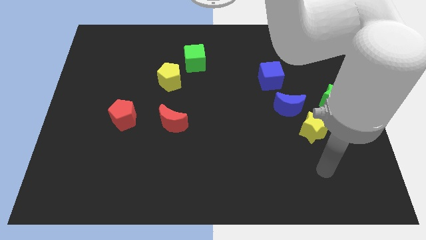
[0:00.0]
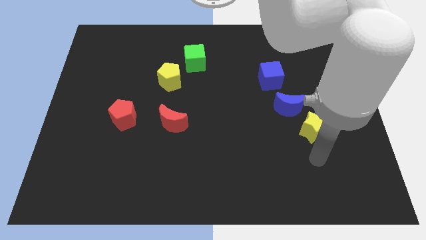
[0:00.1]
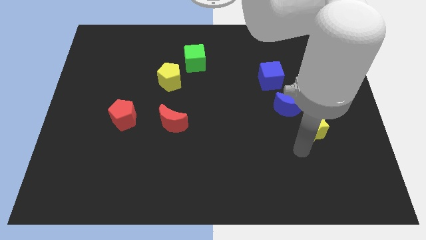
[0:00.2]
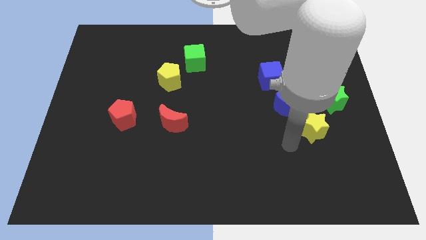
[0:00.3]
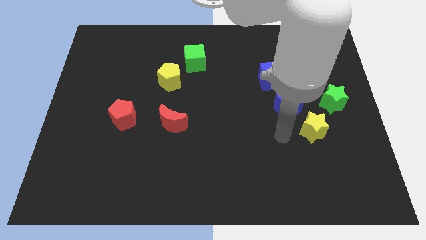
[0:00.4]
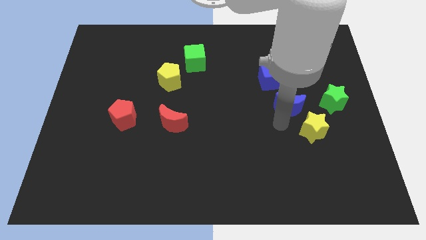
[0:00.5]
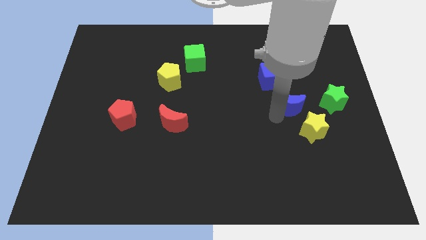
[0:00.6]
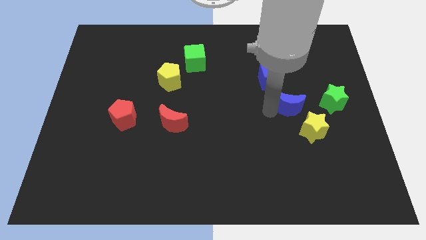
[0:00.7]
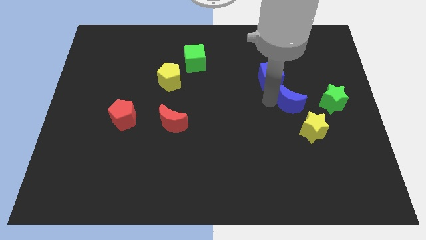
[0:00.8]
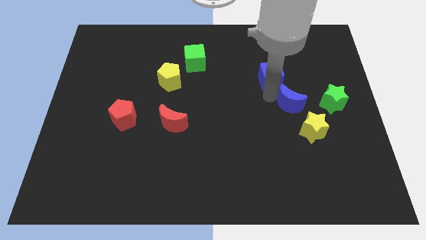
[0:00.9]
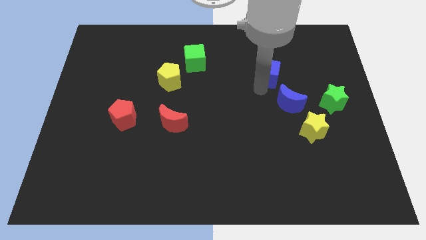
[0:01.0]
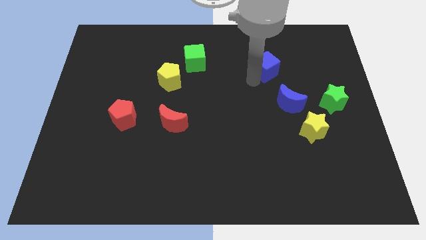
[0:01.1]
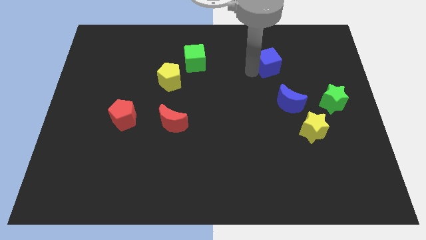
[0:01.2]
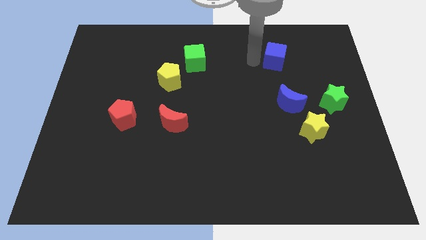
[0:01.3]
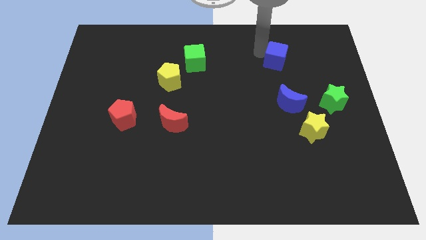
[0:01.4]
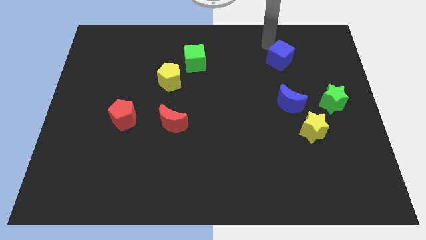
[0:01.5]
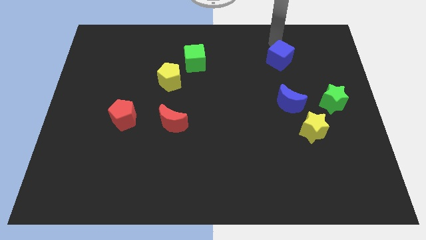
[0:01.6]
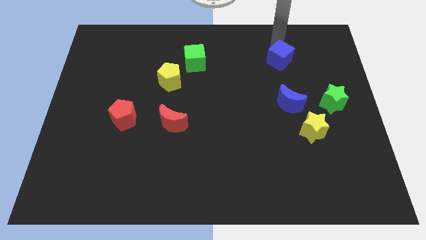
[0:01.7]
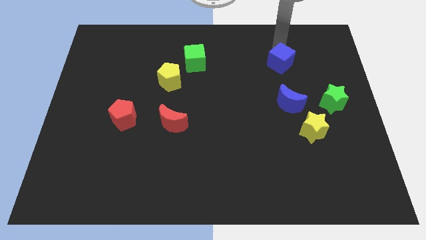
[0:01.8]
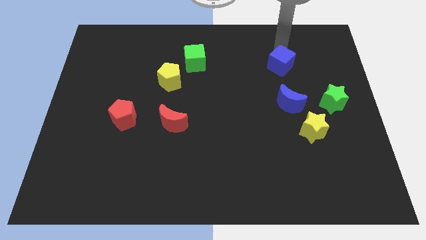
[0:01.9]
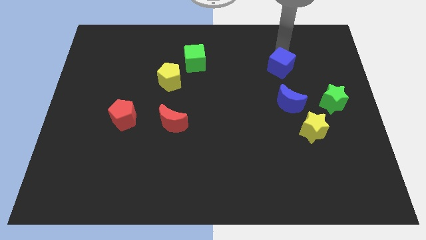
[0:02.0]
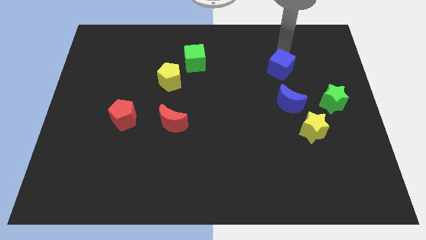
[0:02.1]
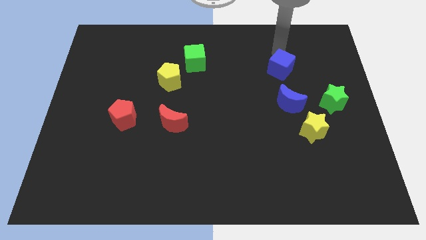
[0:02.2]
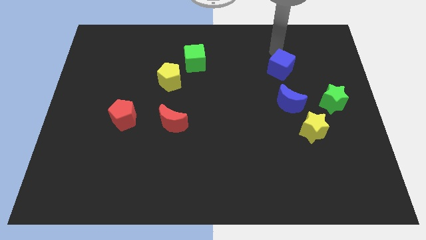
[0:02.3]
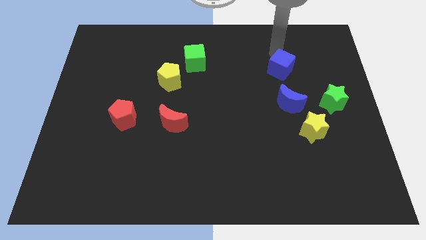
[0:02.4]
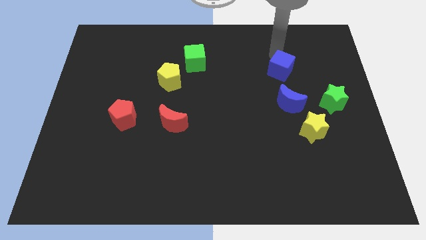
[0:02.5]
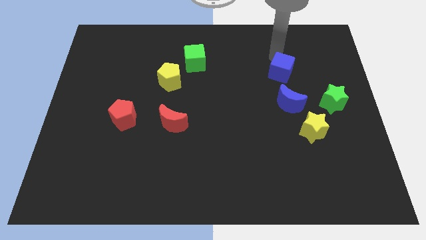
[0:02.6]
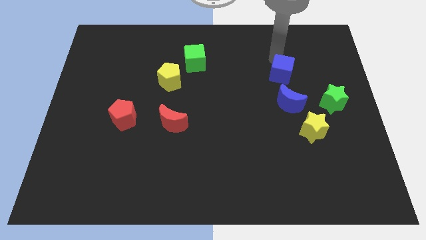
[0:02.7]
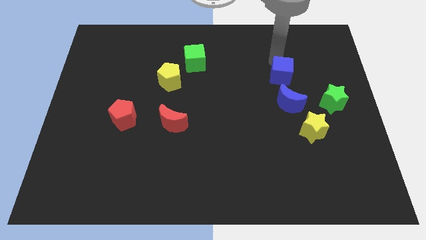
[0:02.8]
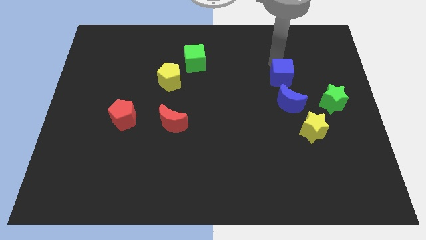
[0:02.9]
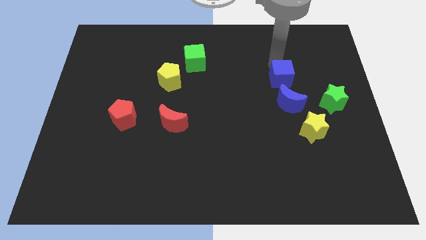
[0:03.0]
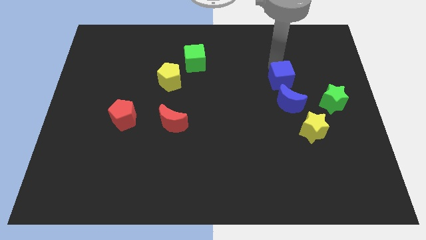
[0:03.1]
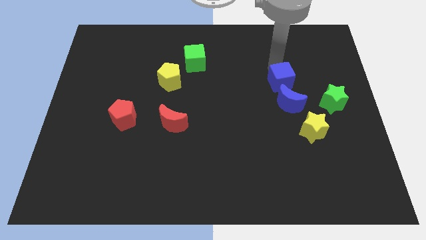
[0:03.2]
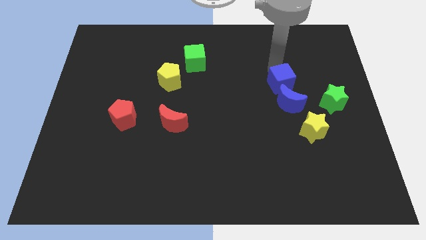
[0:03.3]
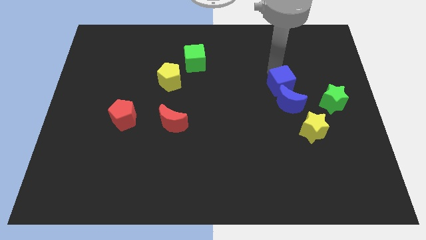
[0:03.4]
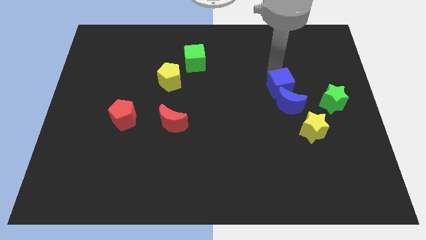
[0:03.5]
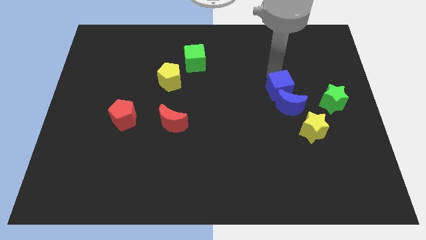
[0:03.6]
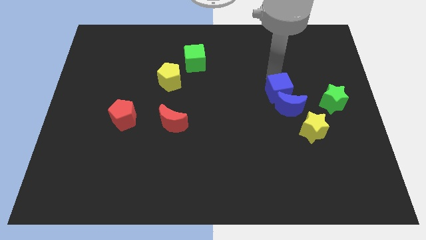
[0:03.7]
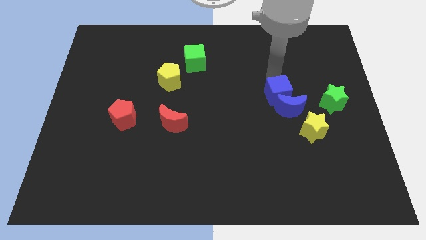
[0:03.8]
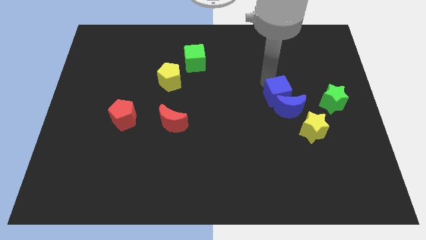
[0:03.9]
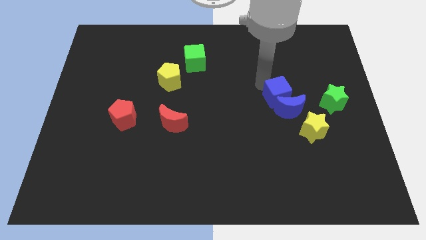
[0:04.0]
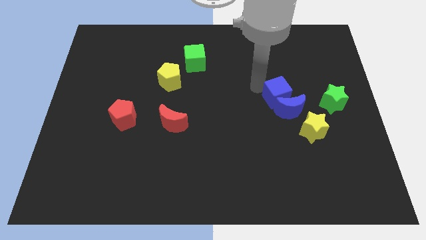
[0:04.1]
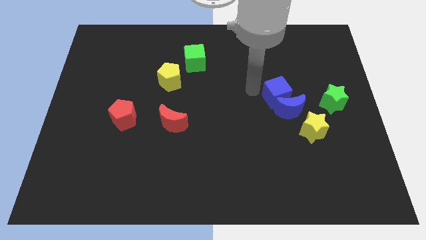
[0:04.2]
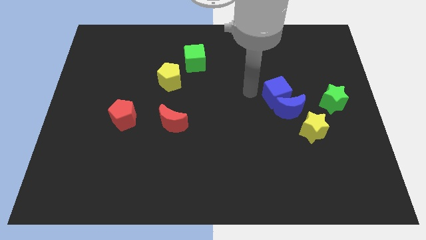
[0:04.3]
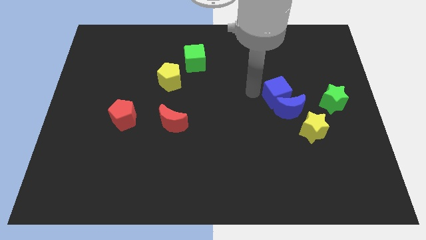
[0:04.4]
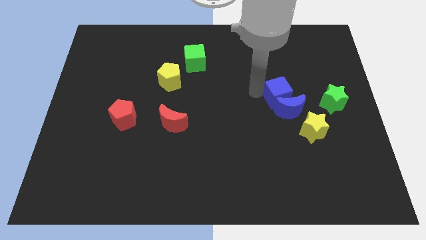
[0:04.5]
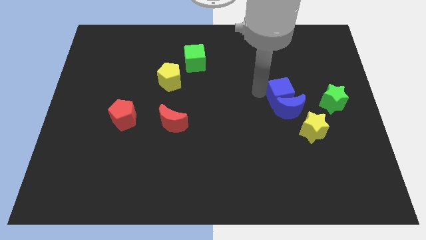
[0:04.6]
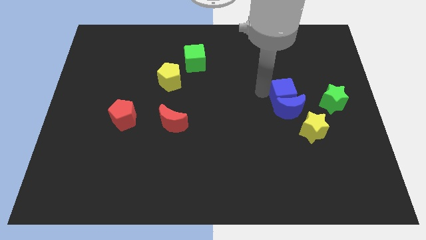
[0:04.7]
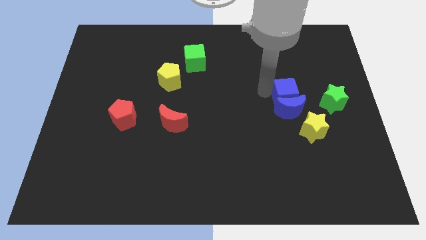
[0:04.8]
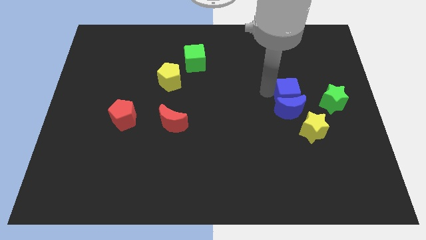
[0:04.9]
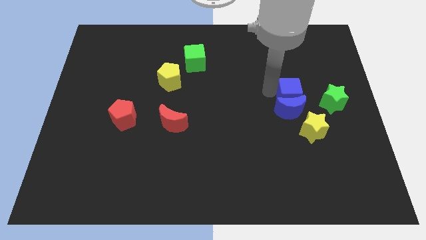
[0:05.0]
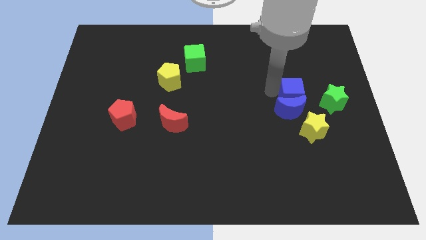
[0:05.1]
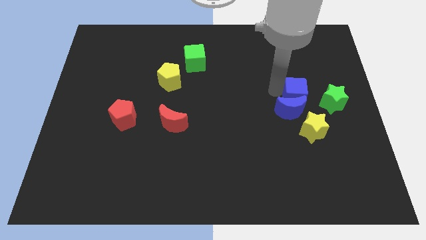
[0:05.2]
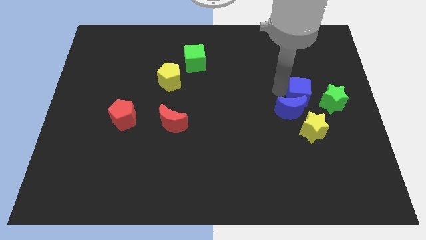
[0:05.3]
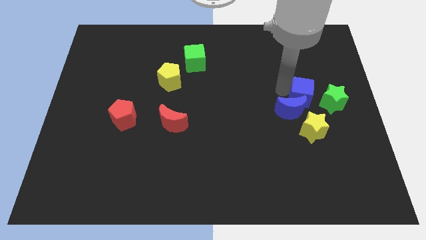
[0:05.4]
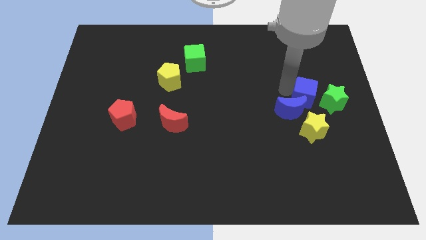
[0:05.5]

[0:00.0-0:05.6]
move the blue cube right of the blue moon

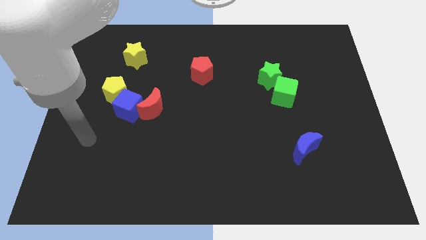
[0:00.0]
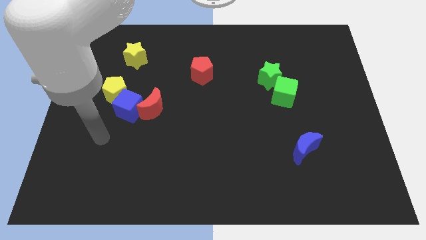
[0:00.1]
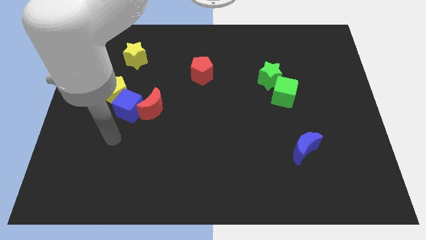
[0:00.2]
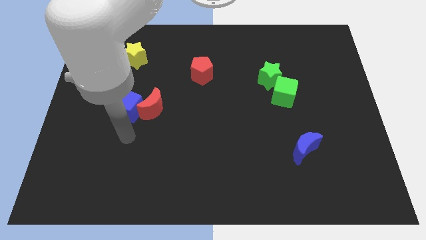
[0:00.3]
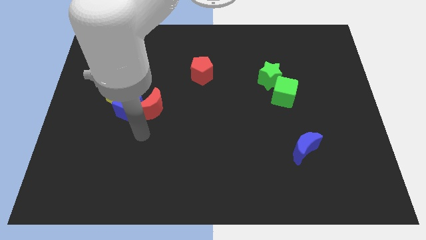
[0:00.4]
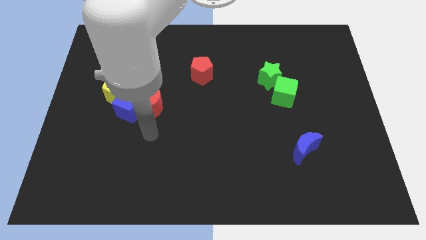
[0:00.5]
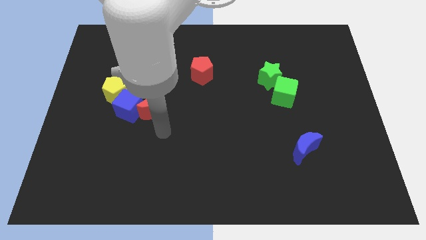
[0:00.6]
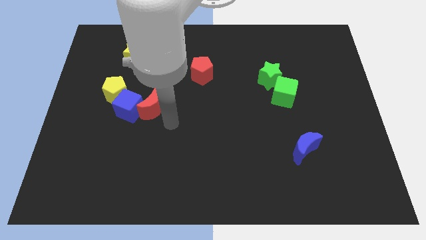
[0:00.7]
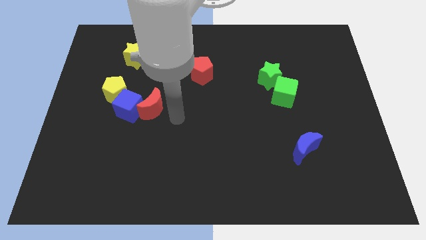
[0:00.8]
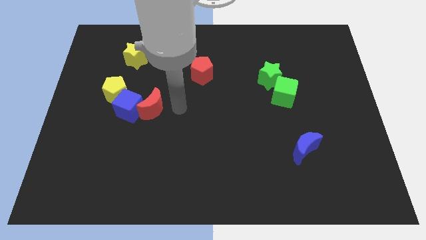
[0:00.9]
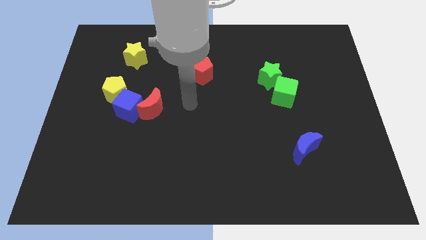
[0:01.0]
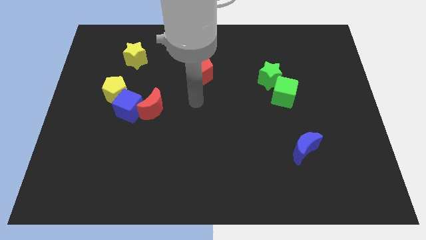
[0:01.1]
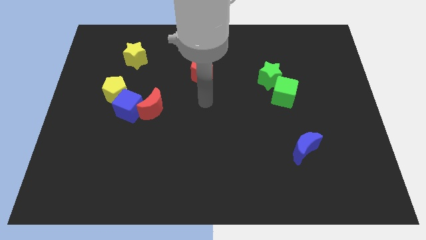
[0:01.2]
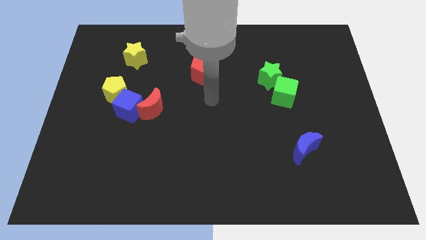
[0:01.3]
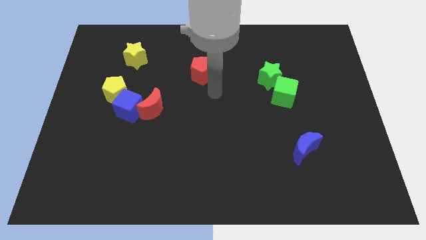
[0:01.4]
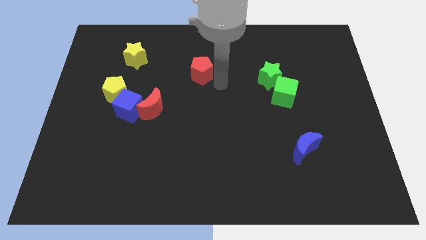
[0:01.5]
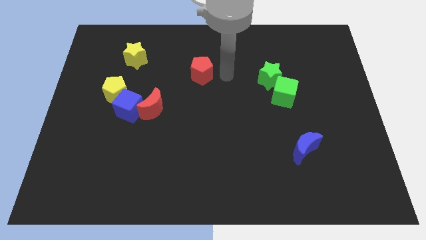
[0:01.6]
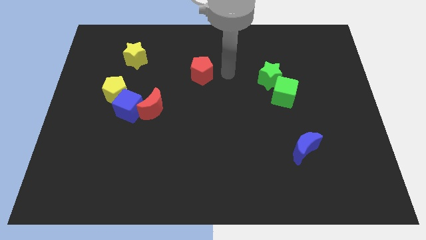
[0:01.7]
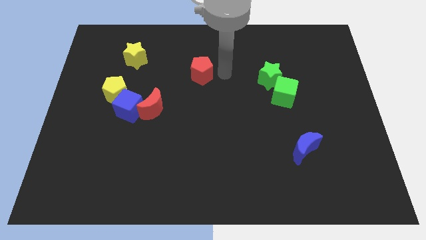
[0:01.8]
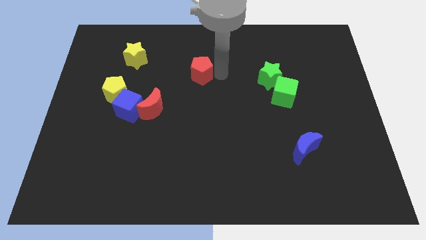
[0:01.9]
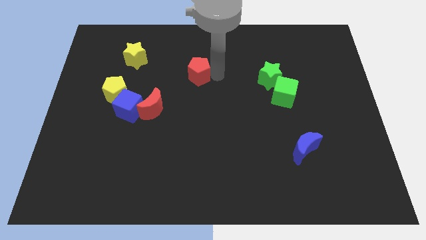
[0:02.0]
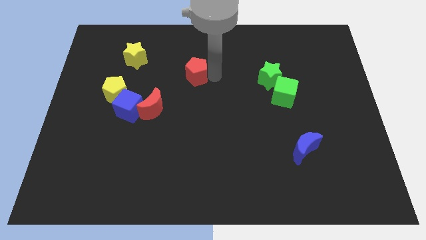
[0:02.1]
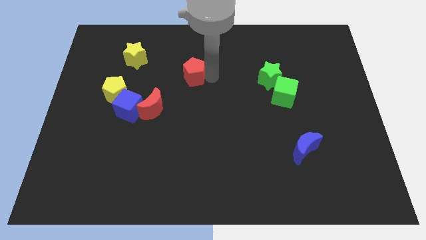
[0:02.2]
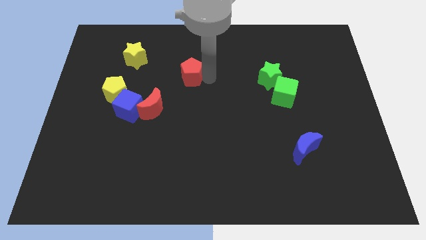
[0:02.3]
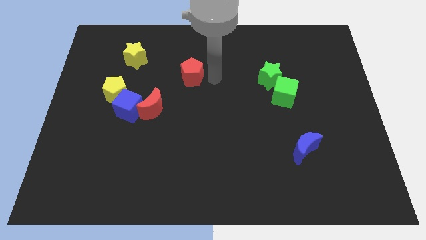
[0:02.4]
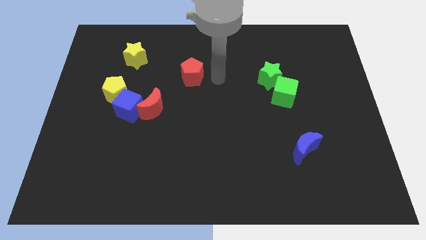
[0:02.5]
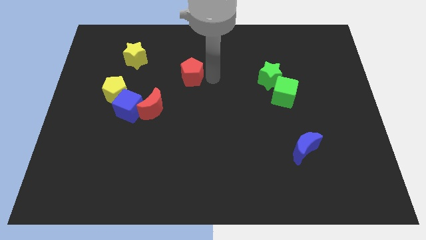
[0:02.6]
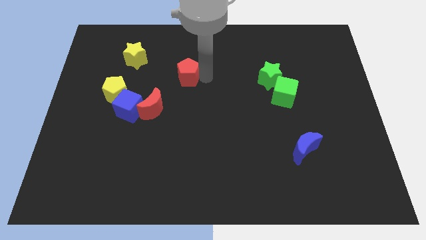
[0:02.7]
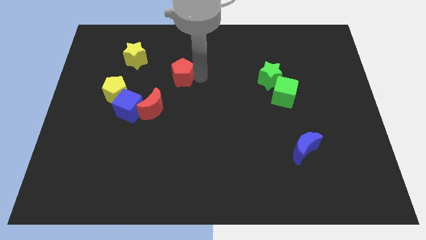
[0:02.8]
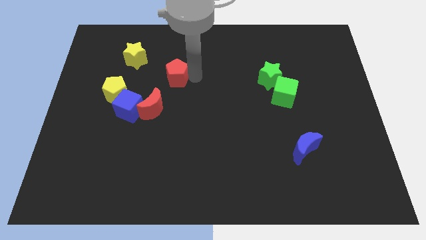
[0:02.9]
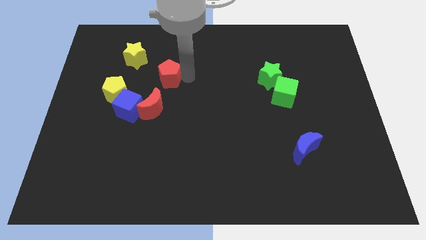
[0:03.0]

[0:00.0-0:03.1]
push the red pentagon diagonally down and to the right of the yellow star
